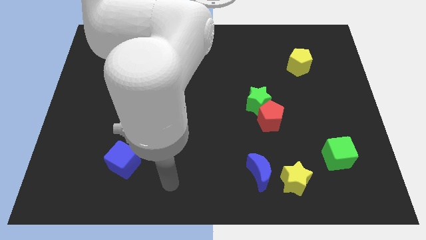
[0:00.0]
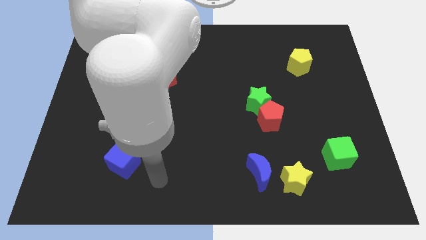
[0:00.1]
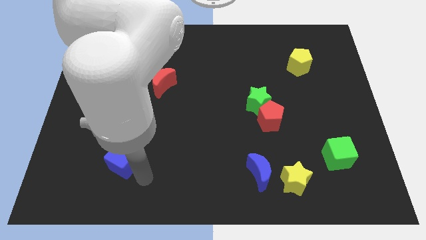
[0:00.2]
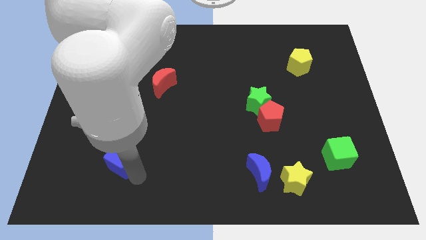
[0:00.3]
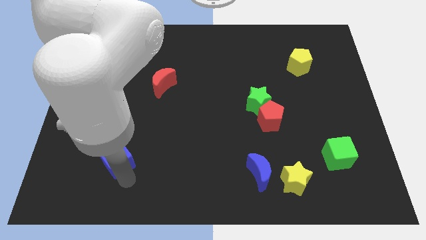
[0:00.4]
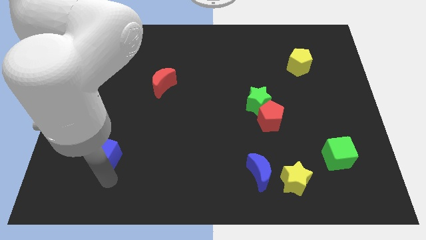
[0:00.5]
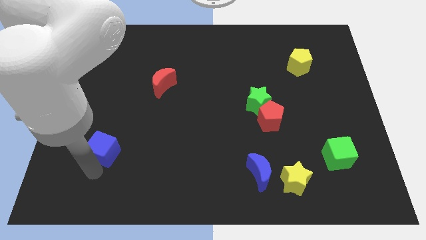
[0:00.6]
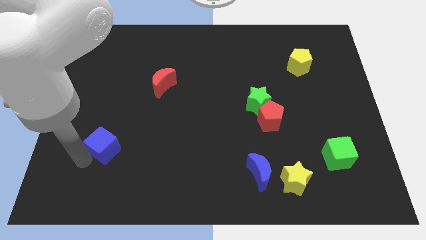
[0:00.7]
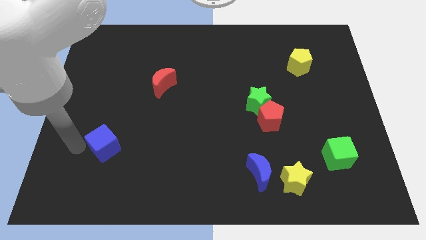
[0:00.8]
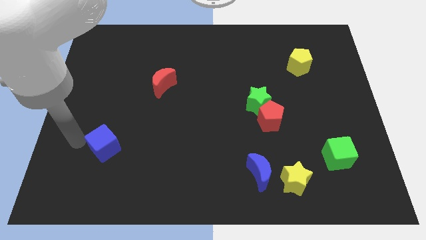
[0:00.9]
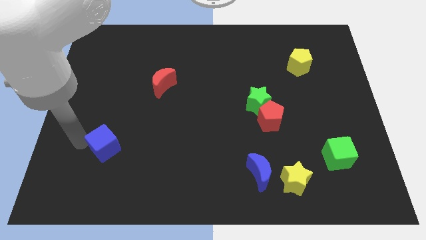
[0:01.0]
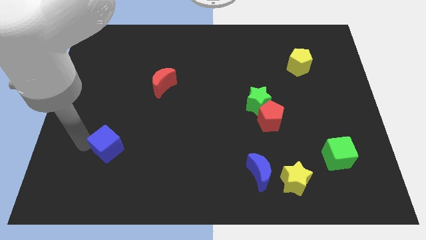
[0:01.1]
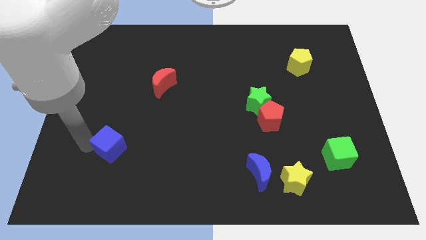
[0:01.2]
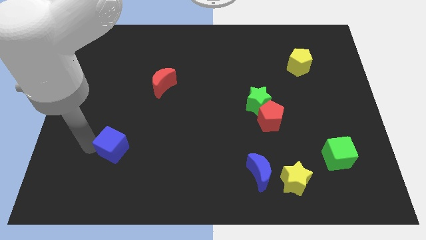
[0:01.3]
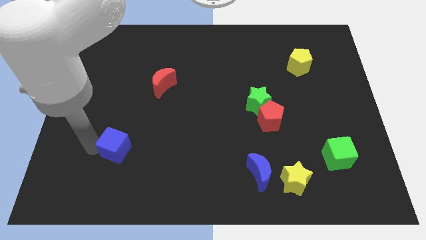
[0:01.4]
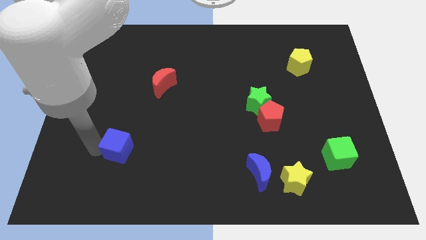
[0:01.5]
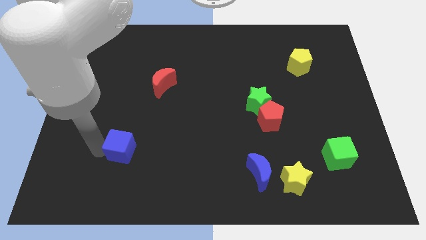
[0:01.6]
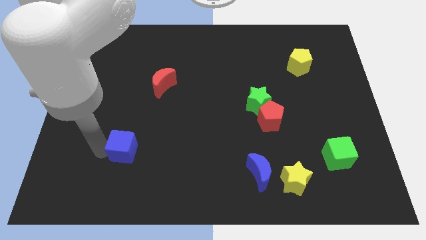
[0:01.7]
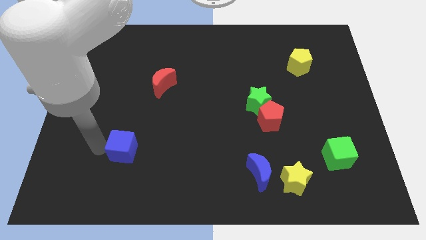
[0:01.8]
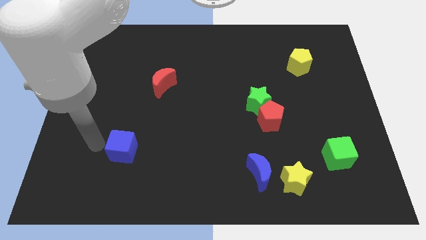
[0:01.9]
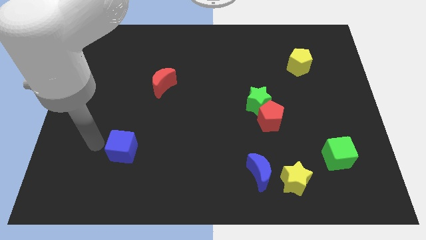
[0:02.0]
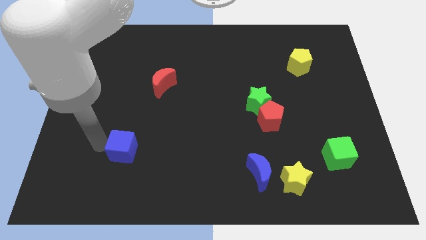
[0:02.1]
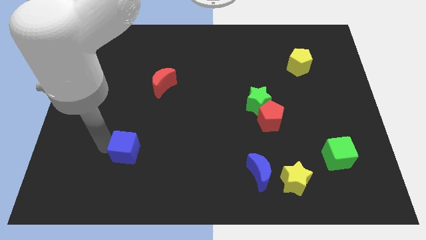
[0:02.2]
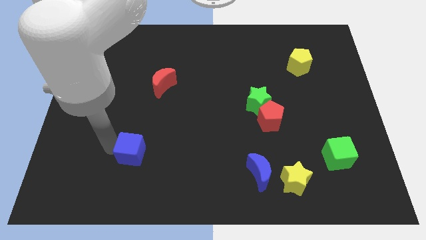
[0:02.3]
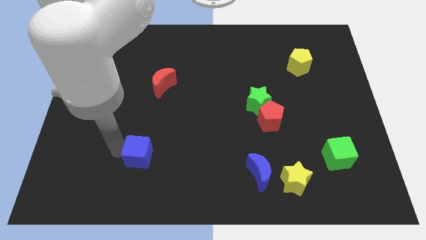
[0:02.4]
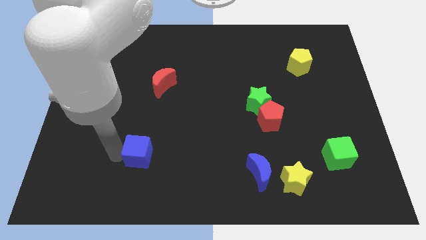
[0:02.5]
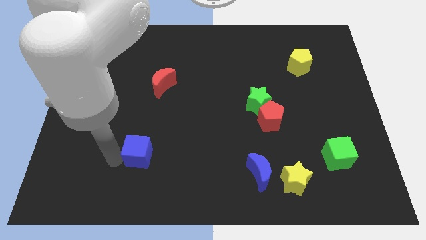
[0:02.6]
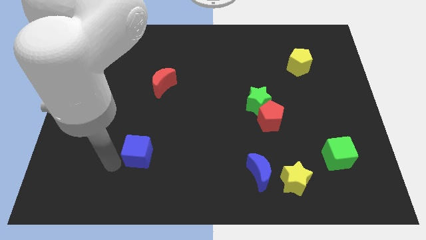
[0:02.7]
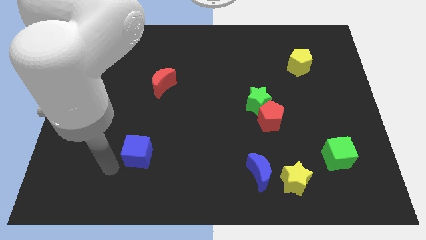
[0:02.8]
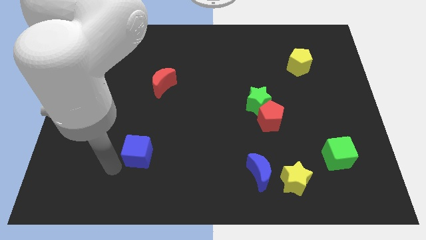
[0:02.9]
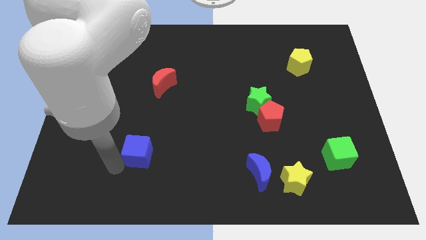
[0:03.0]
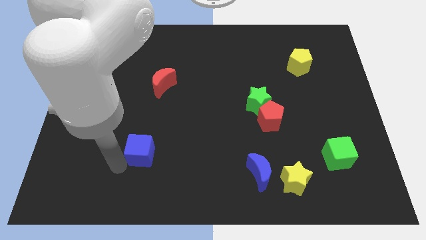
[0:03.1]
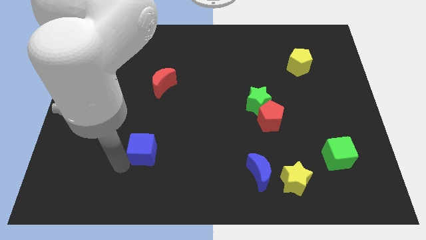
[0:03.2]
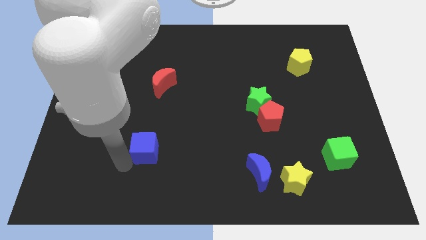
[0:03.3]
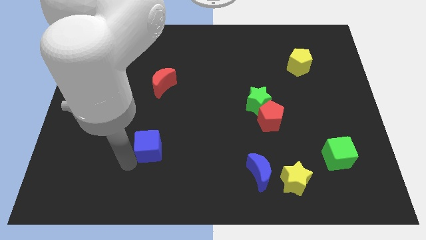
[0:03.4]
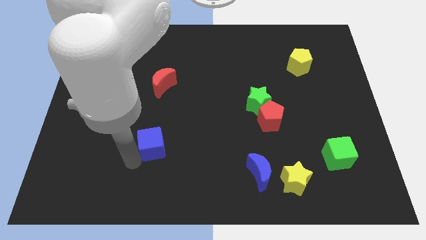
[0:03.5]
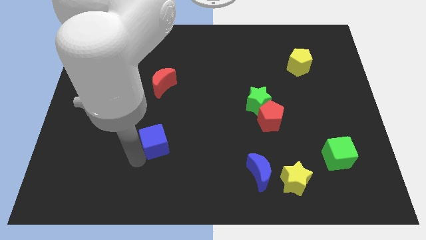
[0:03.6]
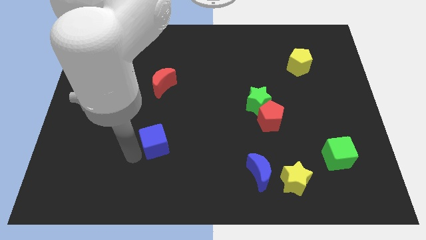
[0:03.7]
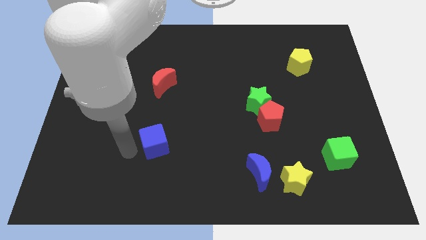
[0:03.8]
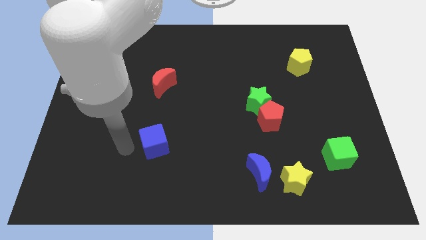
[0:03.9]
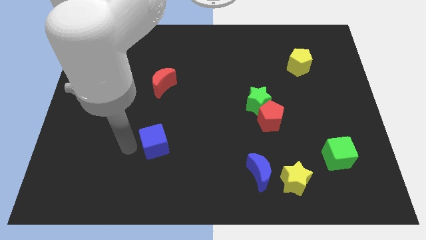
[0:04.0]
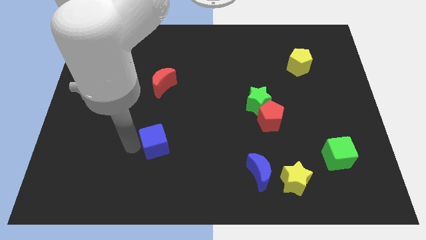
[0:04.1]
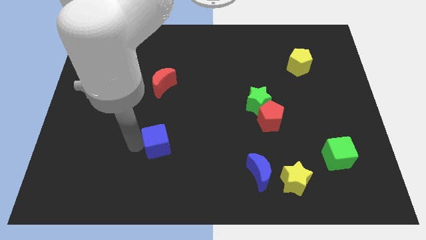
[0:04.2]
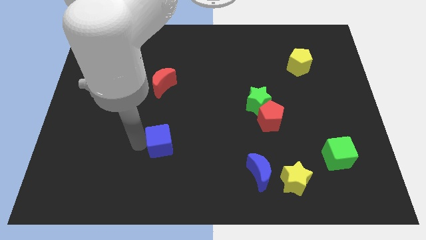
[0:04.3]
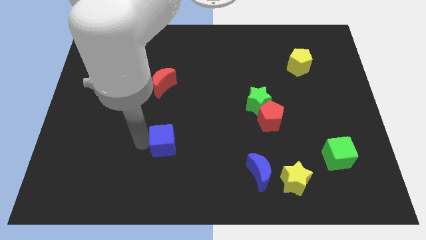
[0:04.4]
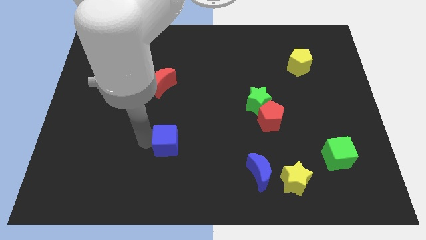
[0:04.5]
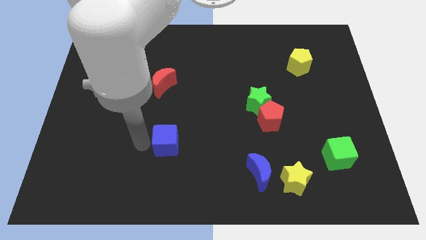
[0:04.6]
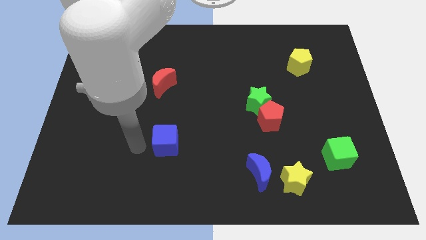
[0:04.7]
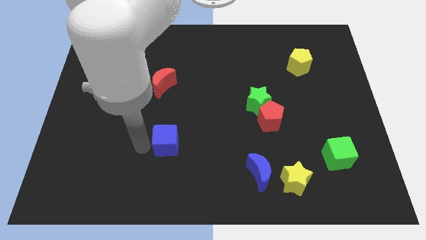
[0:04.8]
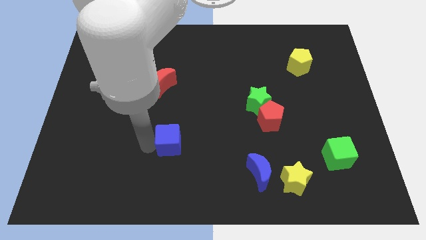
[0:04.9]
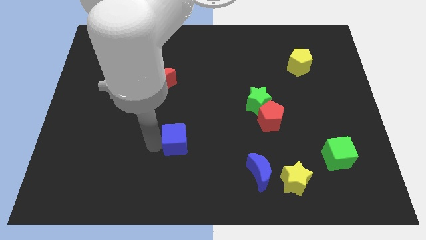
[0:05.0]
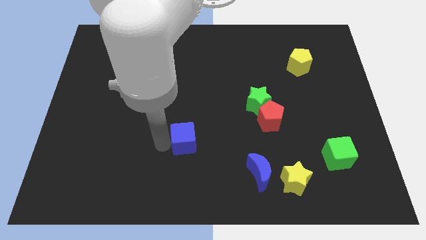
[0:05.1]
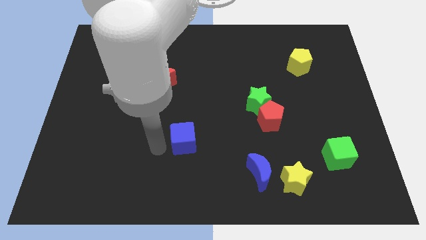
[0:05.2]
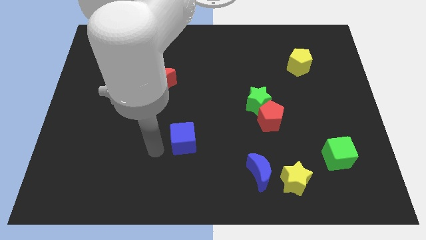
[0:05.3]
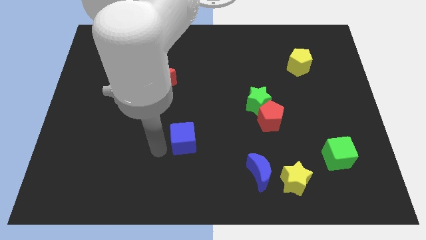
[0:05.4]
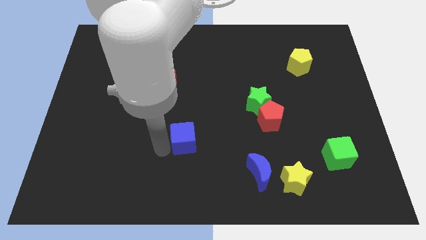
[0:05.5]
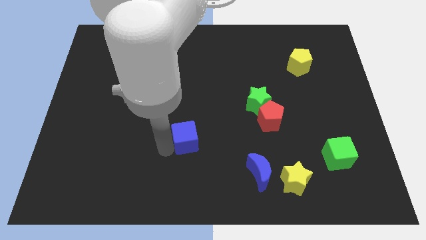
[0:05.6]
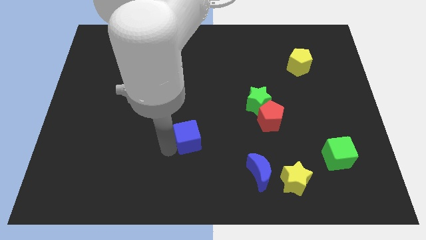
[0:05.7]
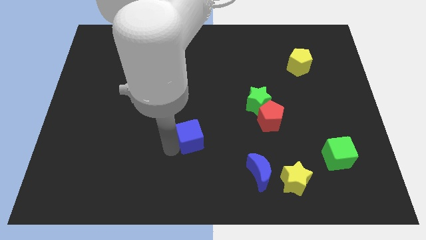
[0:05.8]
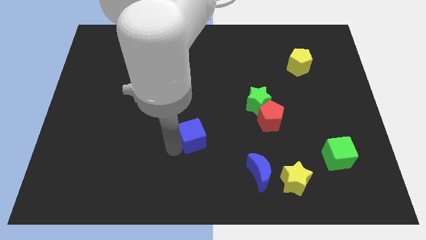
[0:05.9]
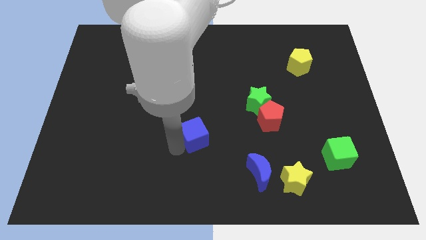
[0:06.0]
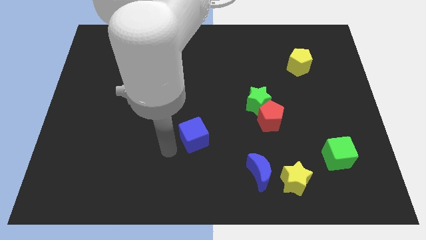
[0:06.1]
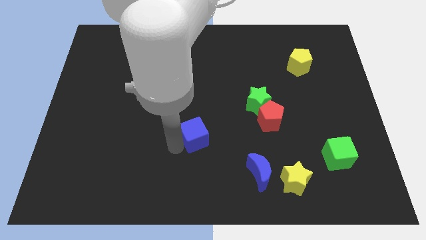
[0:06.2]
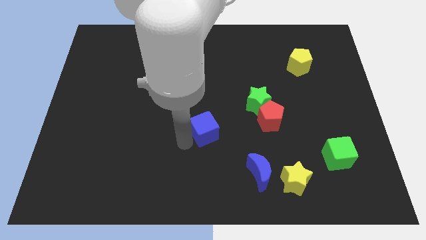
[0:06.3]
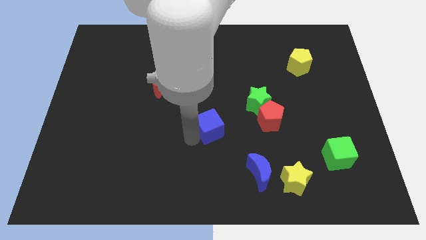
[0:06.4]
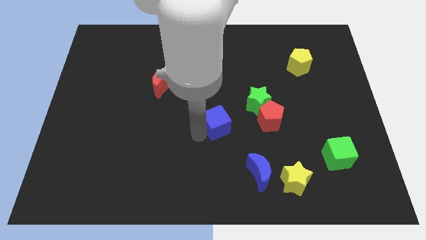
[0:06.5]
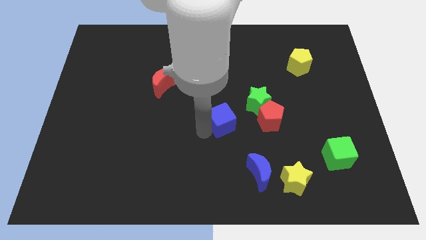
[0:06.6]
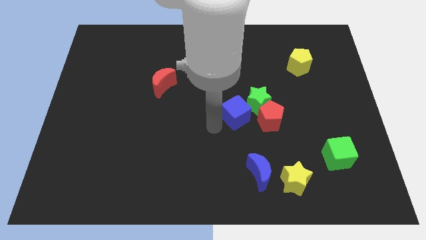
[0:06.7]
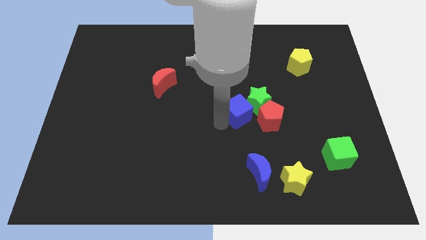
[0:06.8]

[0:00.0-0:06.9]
slide the blue cube next to the green star
